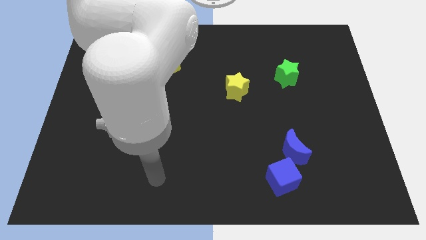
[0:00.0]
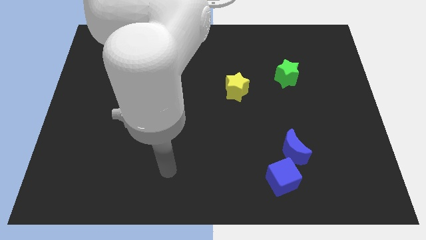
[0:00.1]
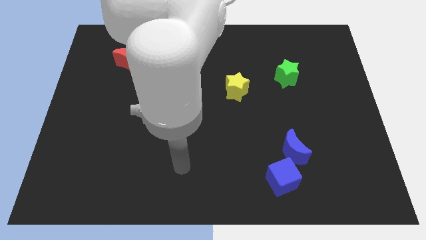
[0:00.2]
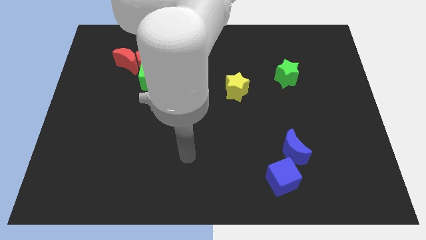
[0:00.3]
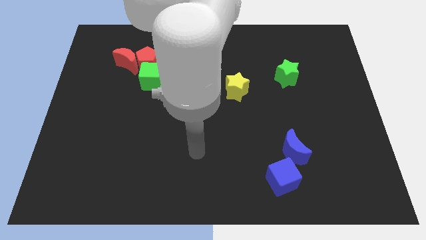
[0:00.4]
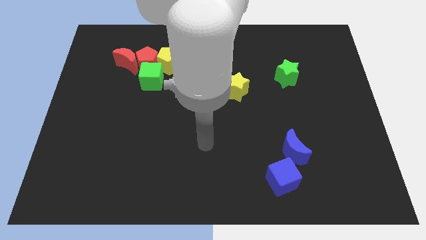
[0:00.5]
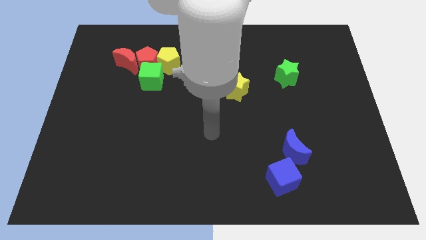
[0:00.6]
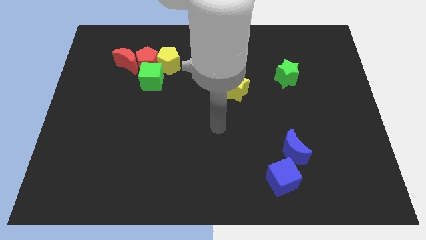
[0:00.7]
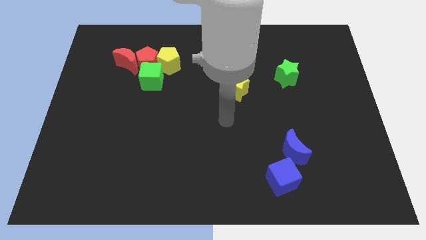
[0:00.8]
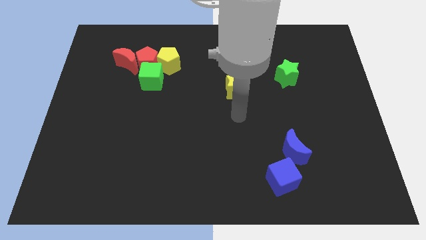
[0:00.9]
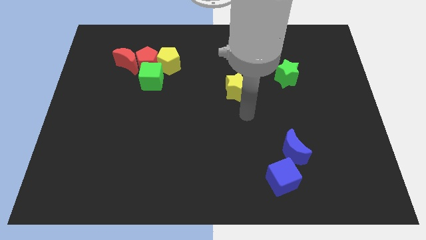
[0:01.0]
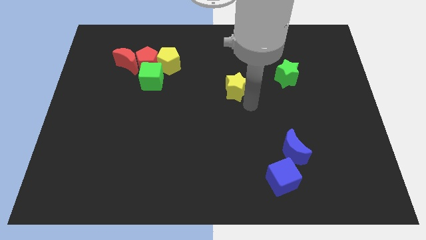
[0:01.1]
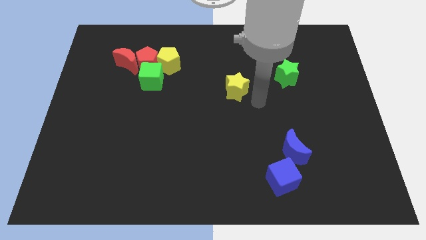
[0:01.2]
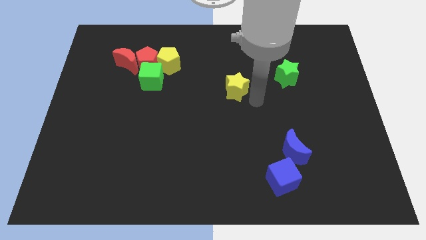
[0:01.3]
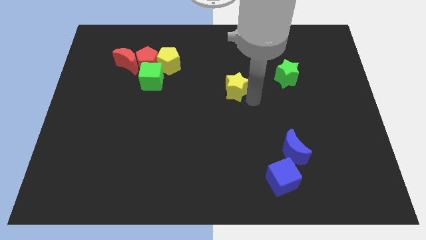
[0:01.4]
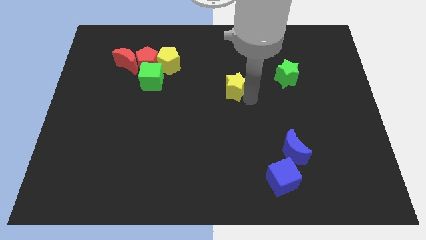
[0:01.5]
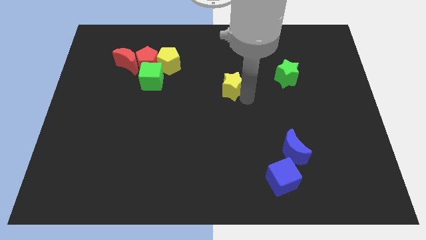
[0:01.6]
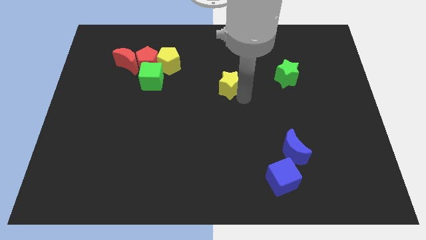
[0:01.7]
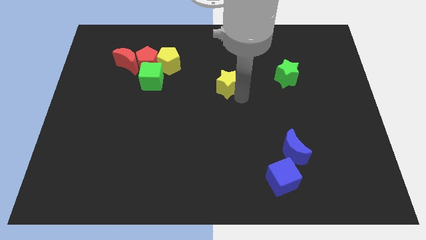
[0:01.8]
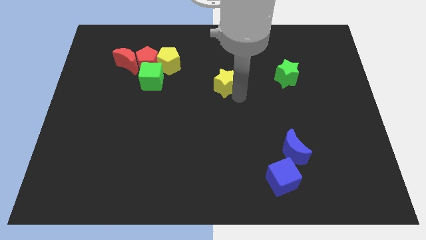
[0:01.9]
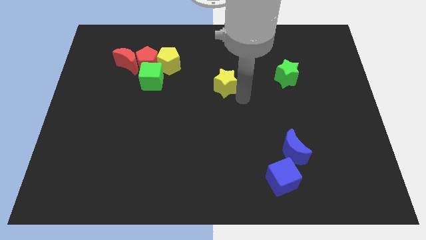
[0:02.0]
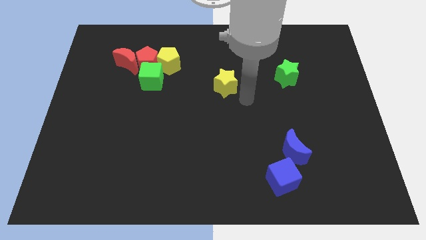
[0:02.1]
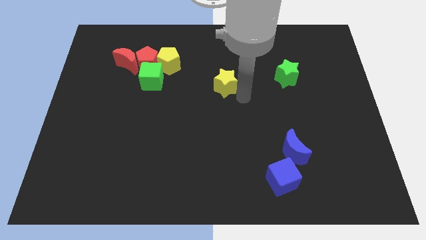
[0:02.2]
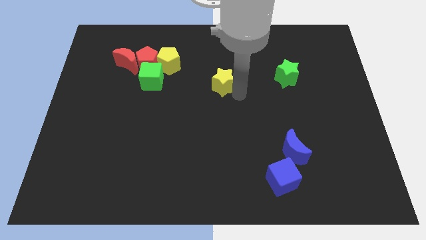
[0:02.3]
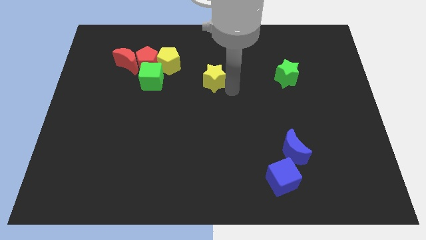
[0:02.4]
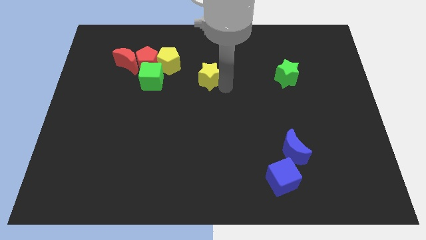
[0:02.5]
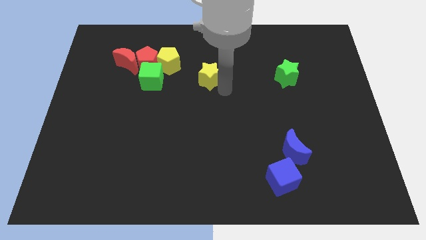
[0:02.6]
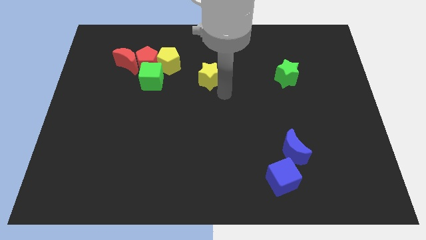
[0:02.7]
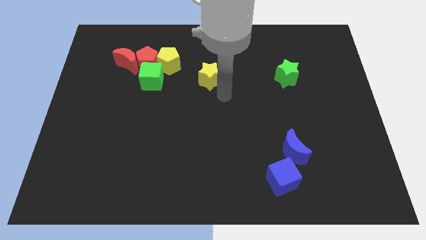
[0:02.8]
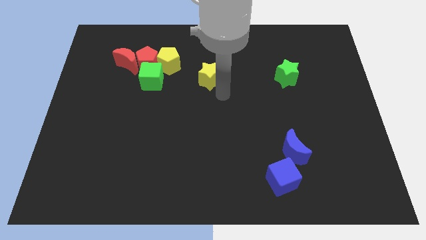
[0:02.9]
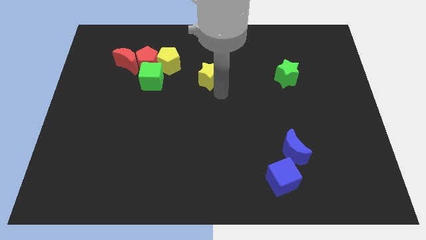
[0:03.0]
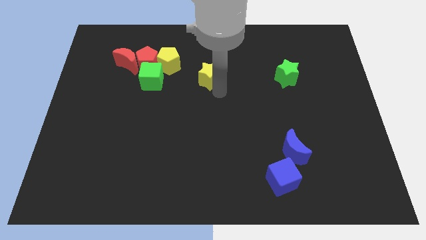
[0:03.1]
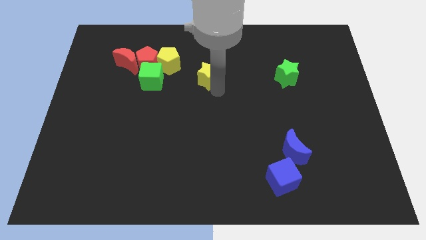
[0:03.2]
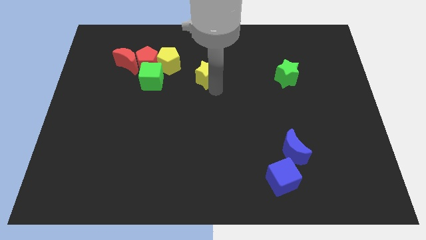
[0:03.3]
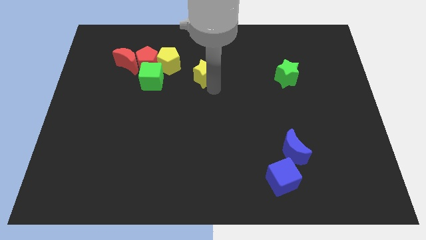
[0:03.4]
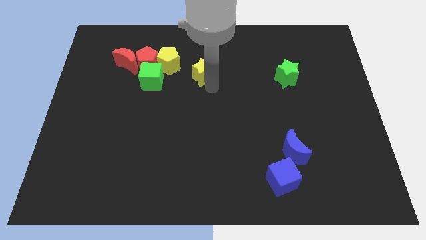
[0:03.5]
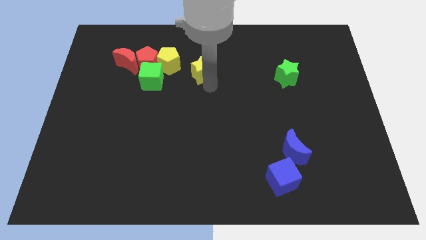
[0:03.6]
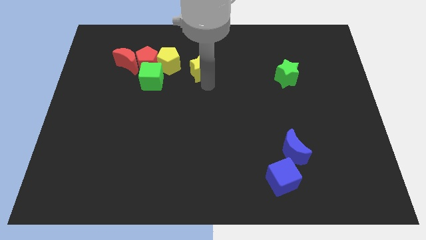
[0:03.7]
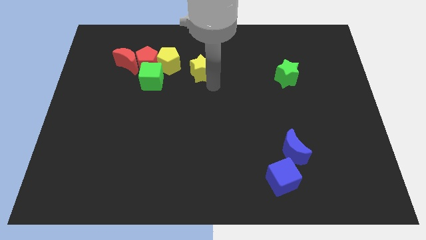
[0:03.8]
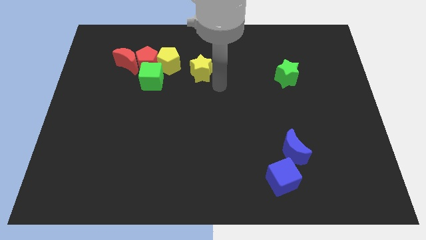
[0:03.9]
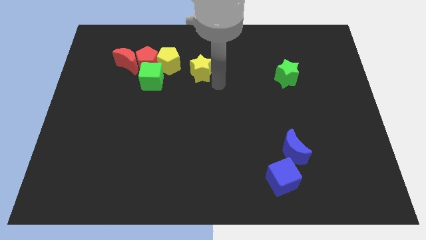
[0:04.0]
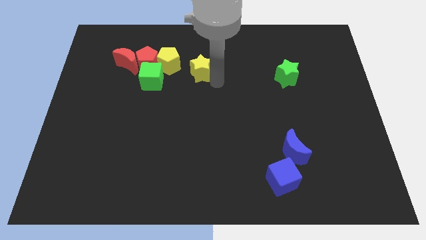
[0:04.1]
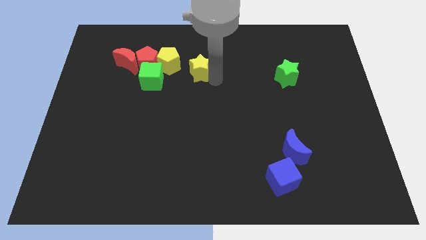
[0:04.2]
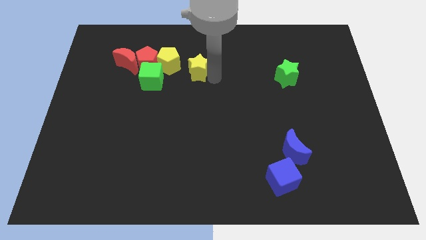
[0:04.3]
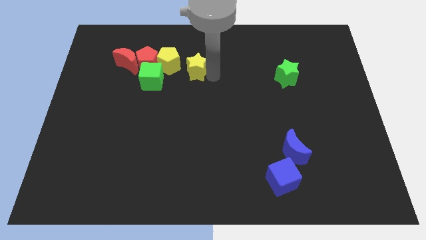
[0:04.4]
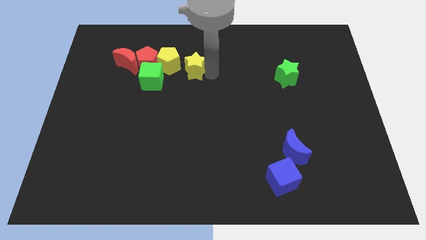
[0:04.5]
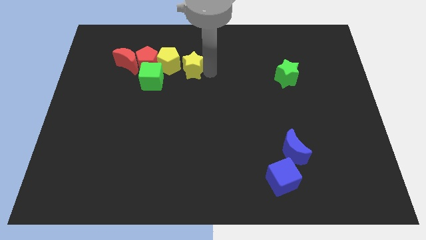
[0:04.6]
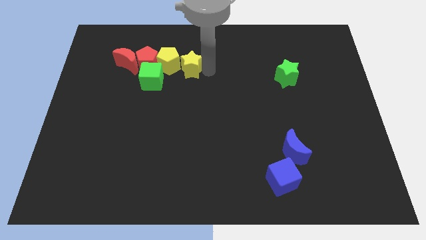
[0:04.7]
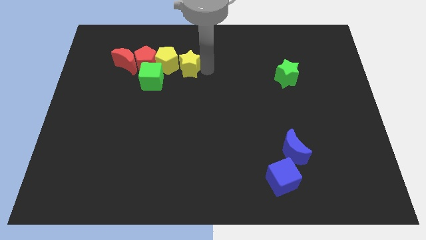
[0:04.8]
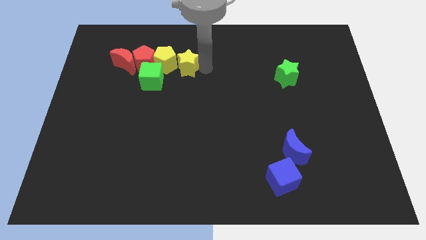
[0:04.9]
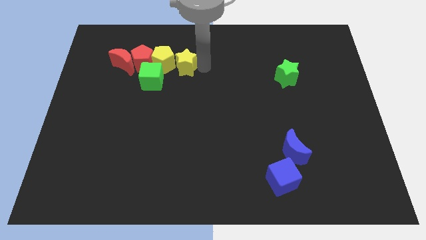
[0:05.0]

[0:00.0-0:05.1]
put the yellow star to the right side of the red moon

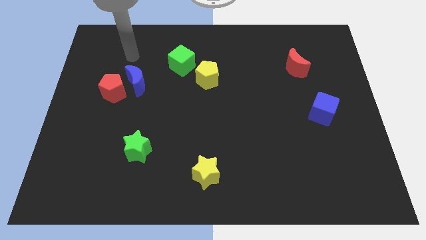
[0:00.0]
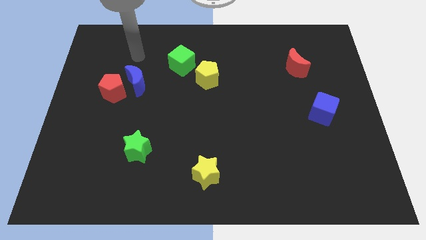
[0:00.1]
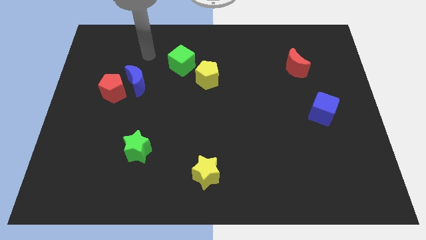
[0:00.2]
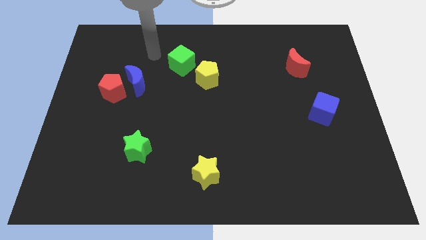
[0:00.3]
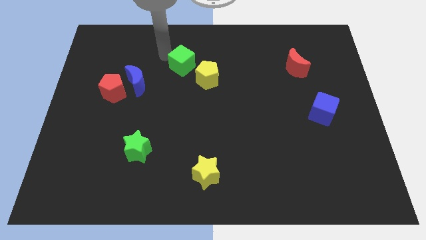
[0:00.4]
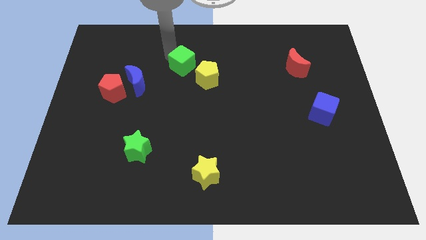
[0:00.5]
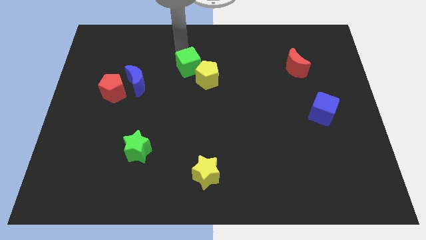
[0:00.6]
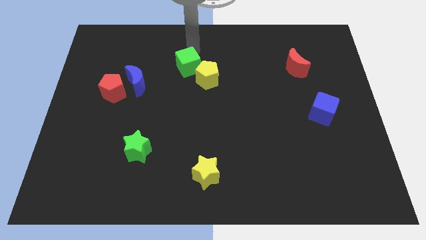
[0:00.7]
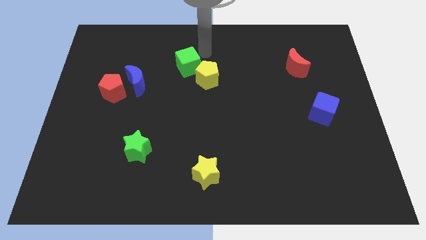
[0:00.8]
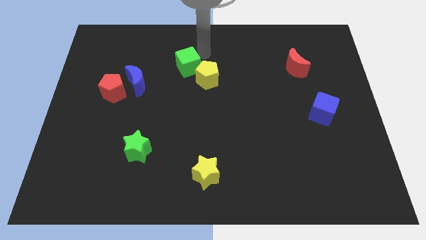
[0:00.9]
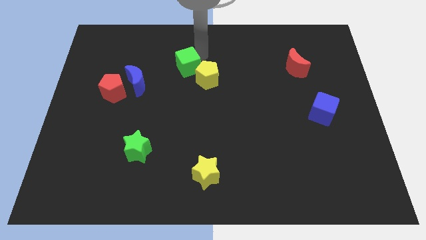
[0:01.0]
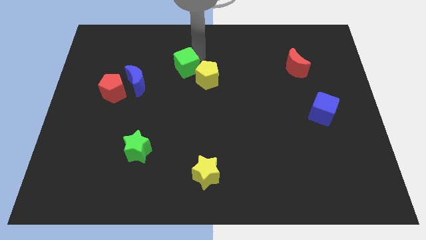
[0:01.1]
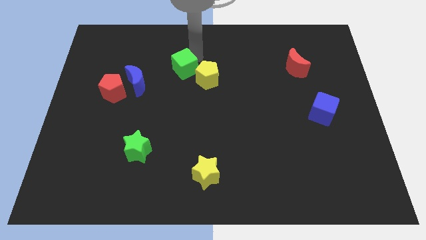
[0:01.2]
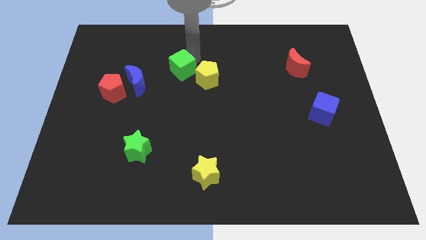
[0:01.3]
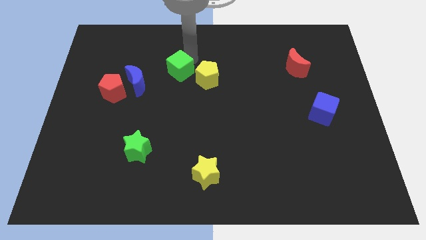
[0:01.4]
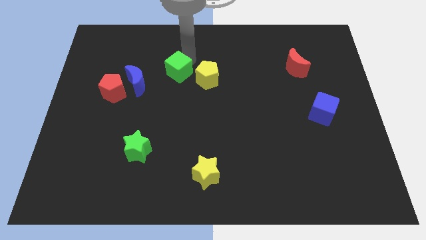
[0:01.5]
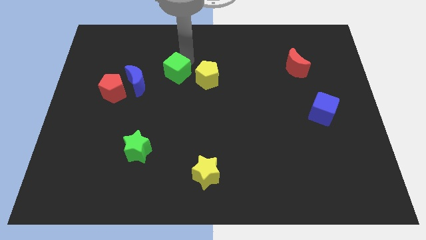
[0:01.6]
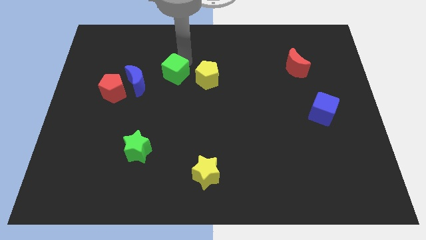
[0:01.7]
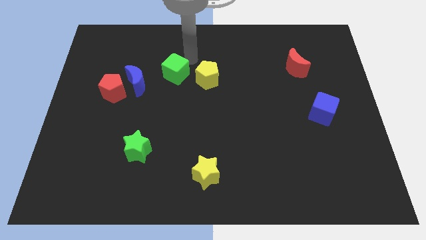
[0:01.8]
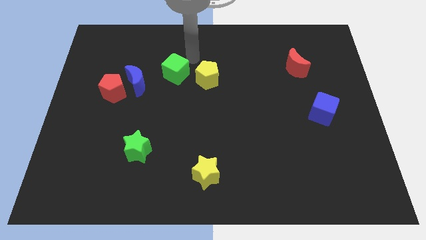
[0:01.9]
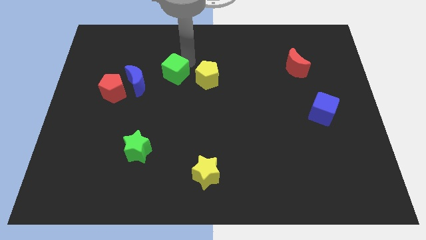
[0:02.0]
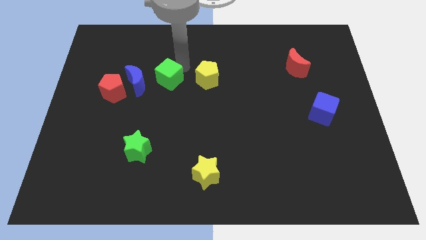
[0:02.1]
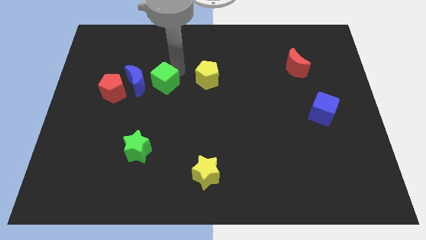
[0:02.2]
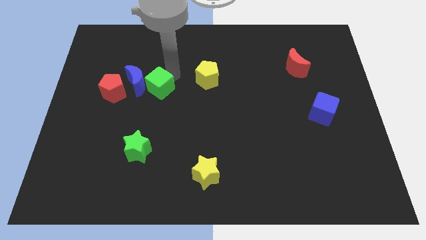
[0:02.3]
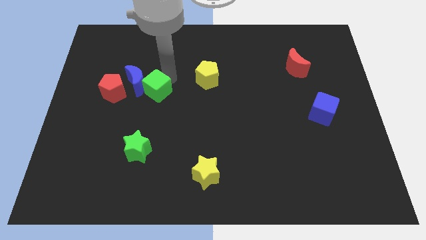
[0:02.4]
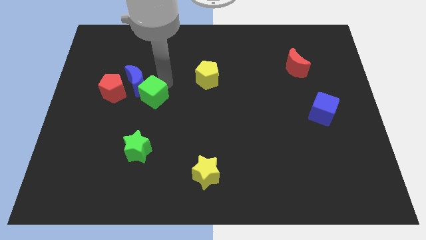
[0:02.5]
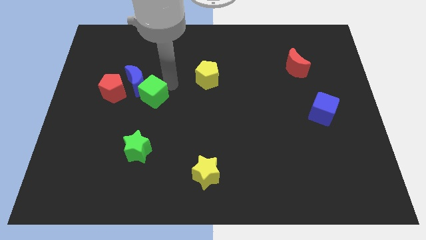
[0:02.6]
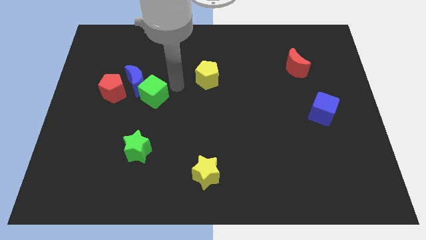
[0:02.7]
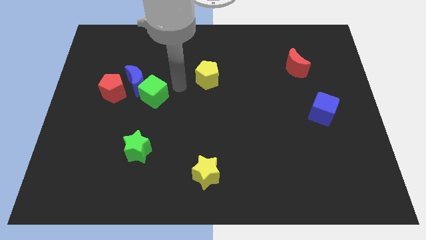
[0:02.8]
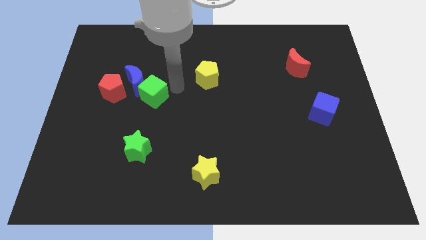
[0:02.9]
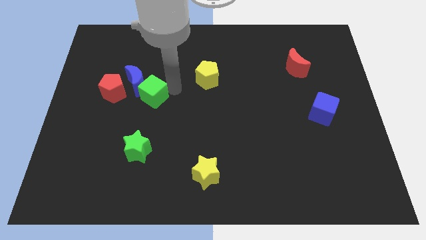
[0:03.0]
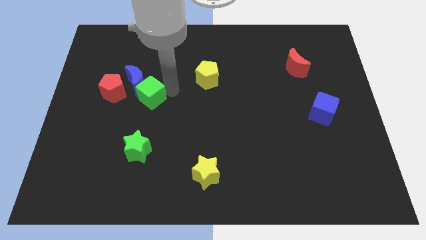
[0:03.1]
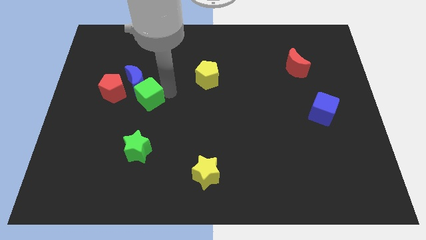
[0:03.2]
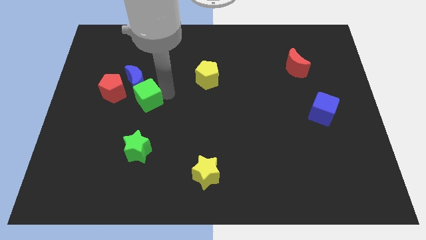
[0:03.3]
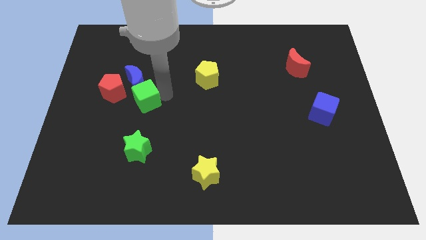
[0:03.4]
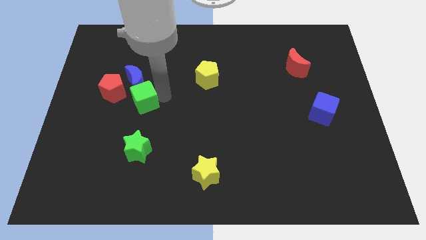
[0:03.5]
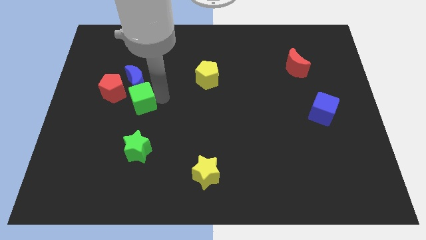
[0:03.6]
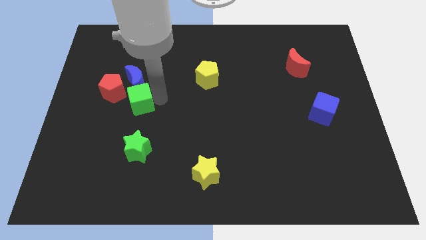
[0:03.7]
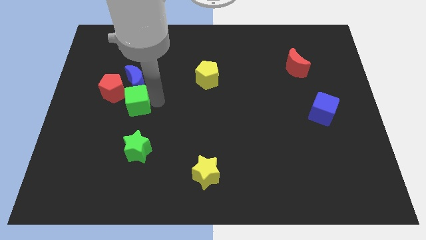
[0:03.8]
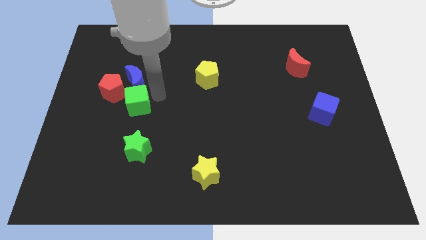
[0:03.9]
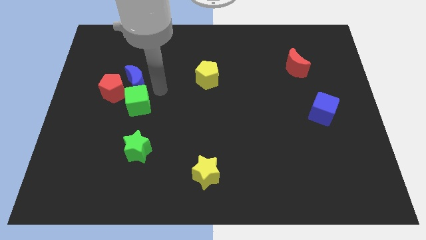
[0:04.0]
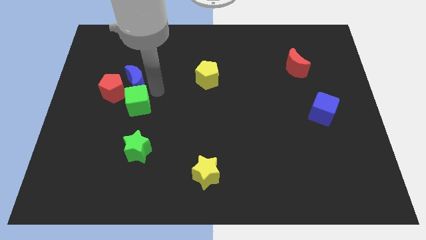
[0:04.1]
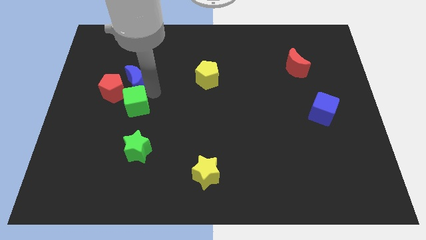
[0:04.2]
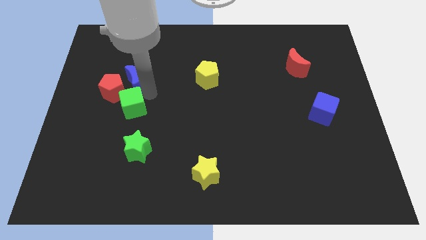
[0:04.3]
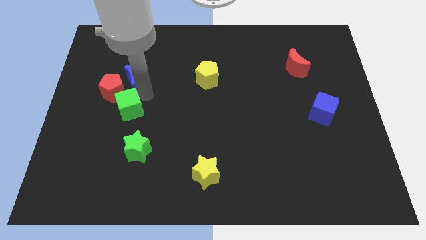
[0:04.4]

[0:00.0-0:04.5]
push the green cube to the bottom of the red pentagon
